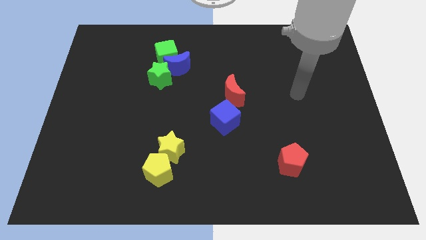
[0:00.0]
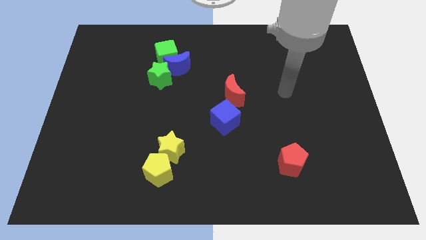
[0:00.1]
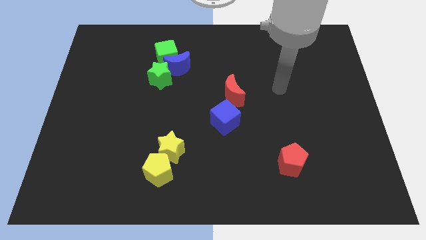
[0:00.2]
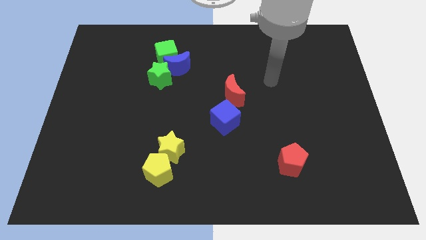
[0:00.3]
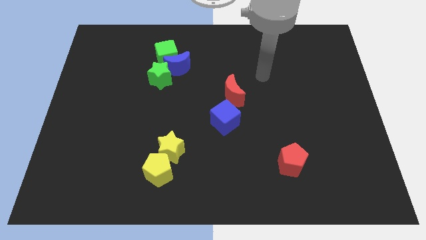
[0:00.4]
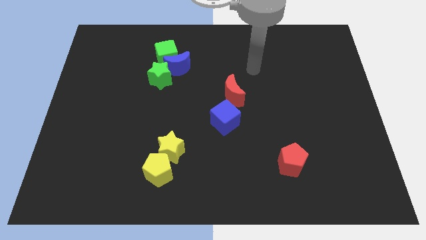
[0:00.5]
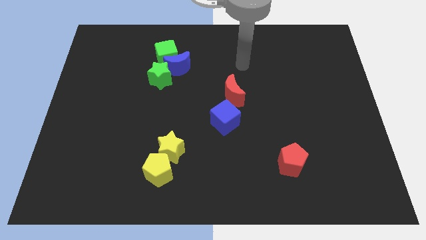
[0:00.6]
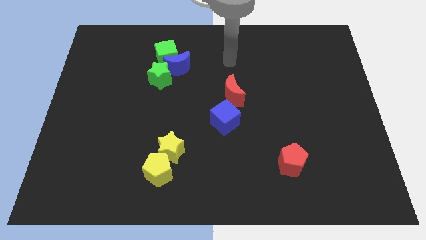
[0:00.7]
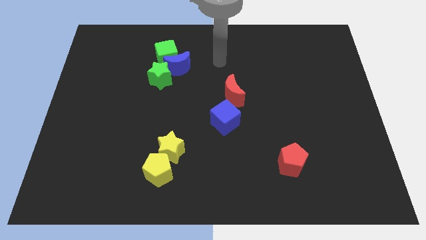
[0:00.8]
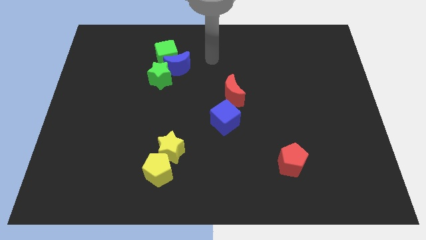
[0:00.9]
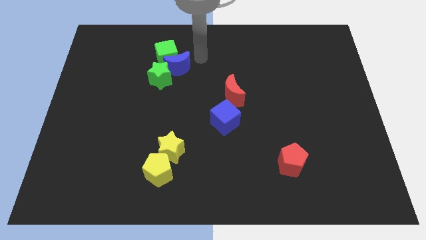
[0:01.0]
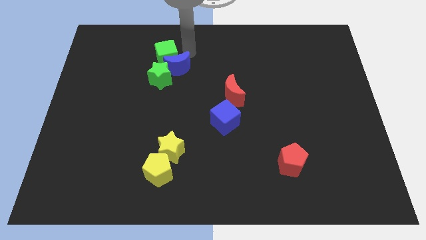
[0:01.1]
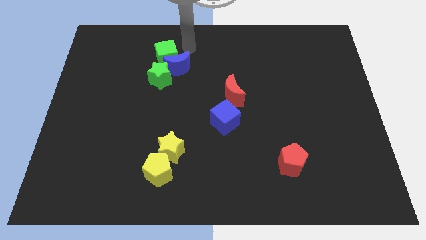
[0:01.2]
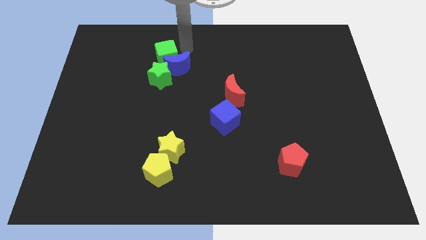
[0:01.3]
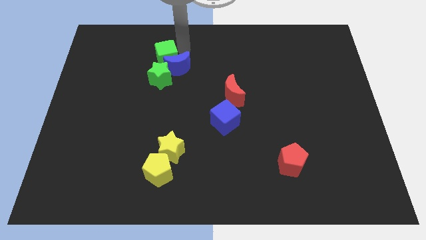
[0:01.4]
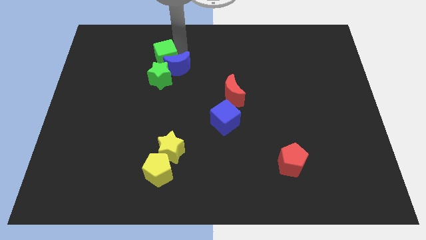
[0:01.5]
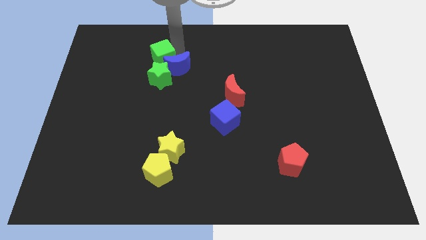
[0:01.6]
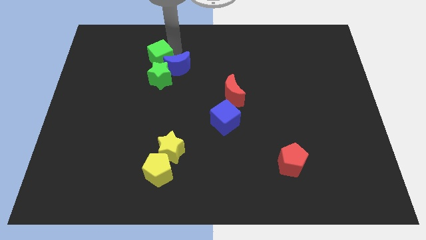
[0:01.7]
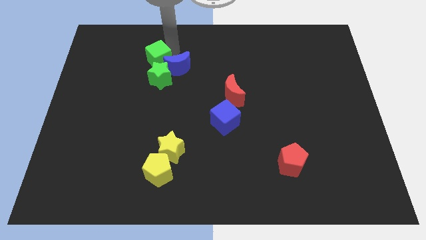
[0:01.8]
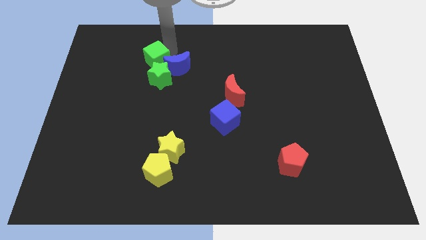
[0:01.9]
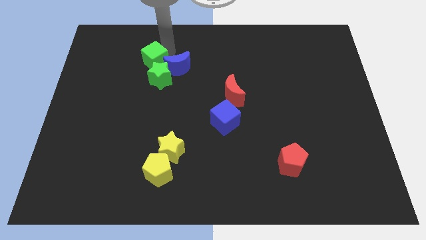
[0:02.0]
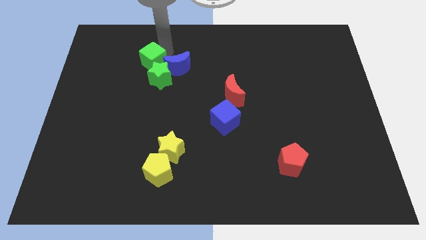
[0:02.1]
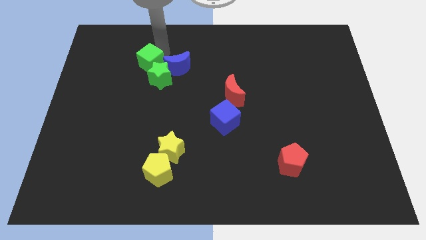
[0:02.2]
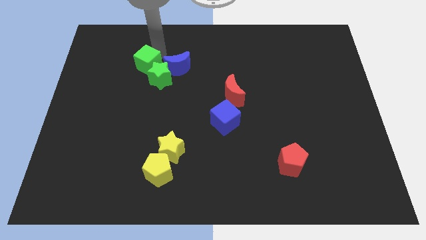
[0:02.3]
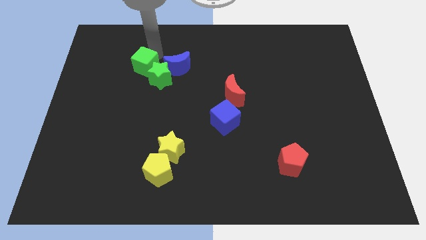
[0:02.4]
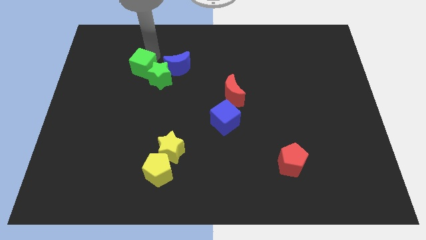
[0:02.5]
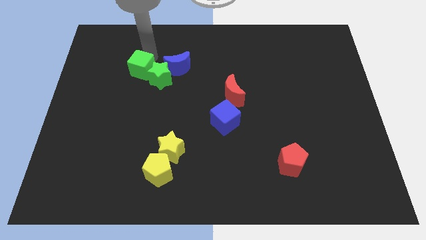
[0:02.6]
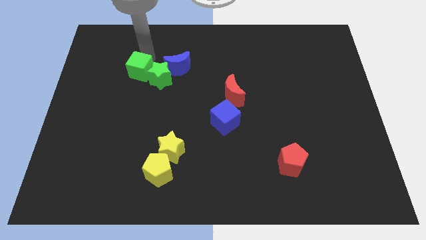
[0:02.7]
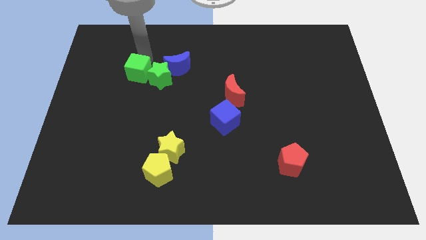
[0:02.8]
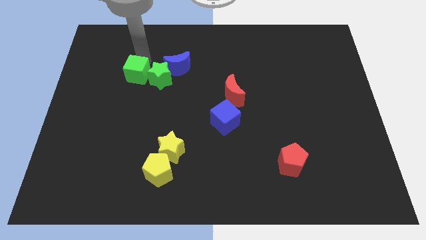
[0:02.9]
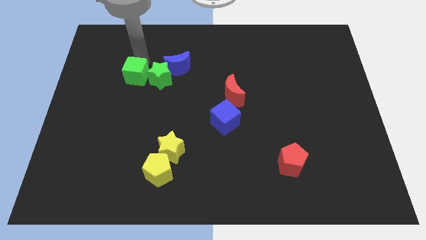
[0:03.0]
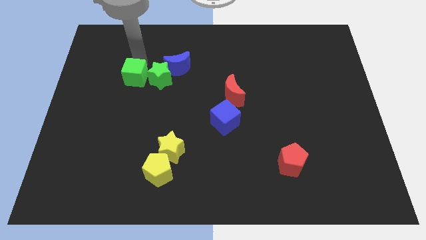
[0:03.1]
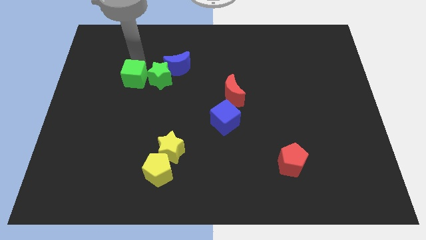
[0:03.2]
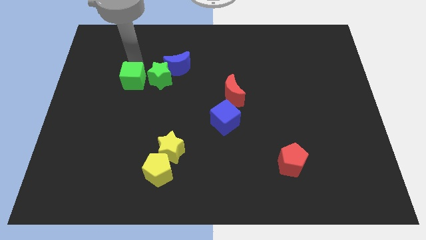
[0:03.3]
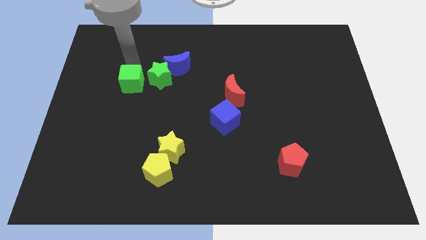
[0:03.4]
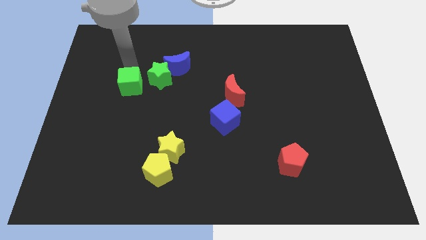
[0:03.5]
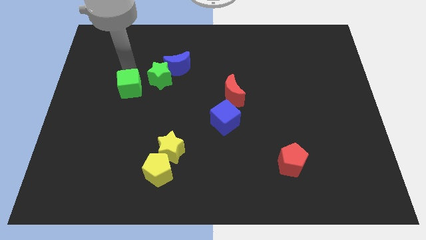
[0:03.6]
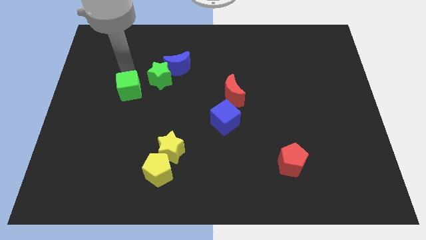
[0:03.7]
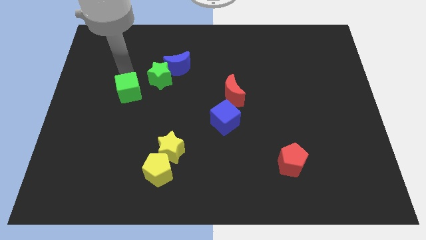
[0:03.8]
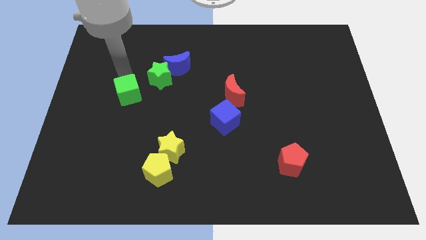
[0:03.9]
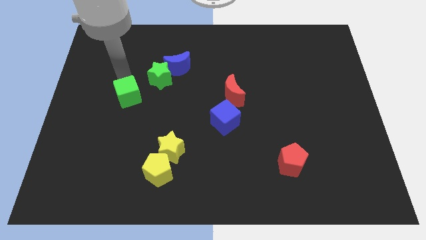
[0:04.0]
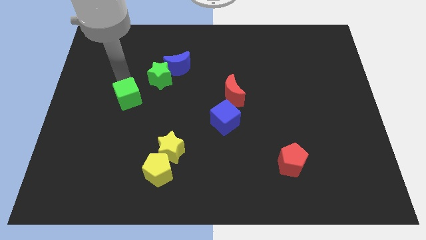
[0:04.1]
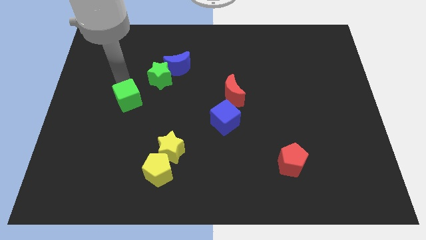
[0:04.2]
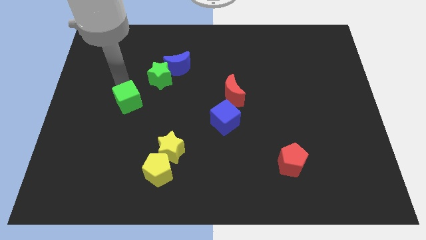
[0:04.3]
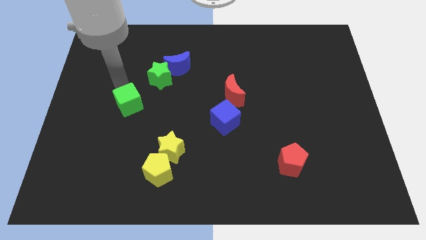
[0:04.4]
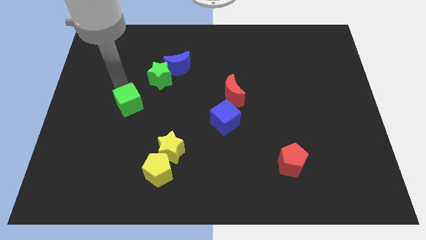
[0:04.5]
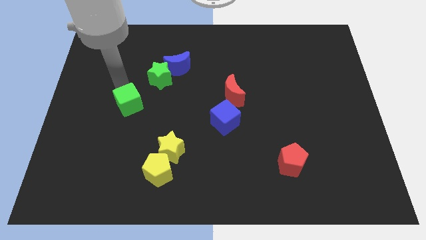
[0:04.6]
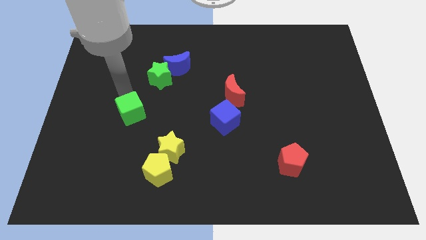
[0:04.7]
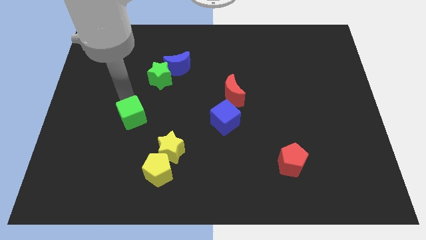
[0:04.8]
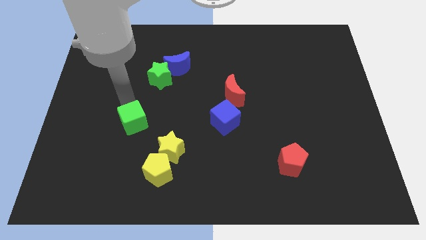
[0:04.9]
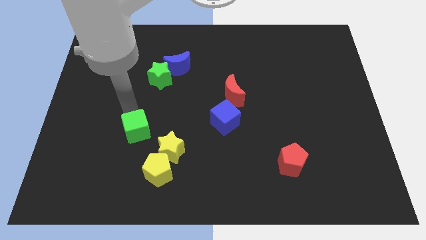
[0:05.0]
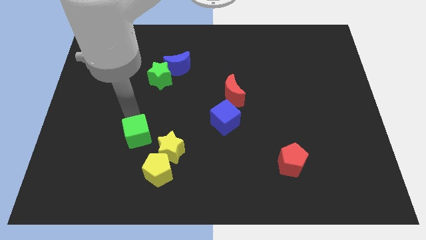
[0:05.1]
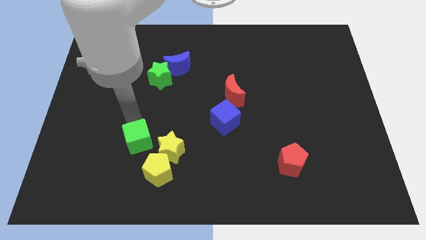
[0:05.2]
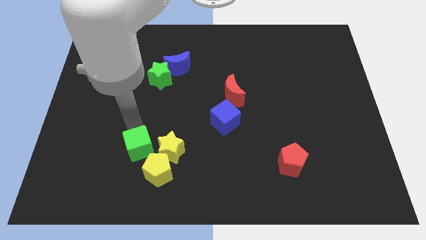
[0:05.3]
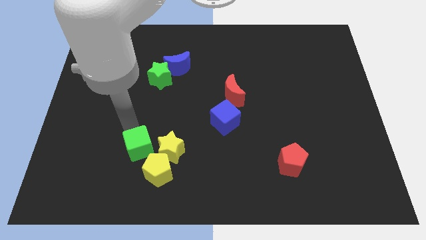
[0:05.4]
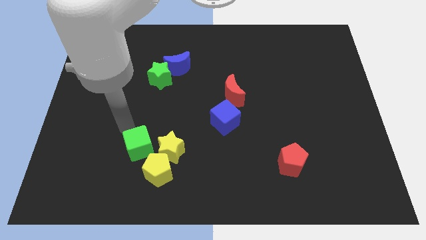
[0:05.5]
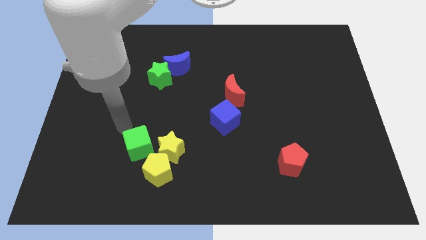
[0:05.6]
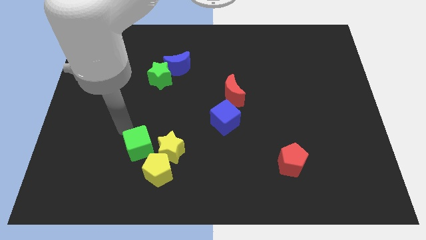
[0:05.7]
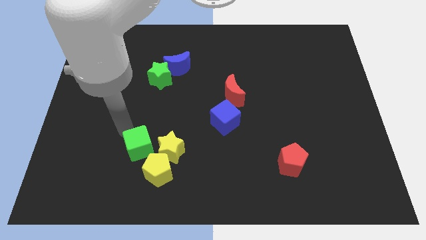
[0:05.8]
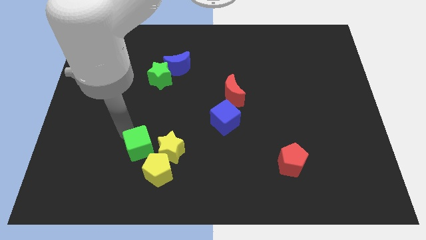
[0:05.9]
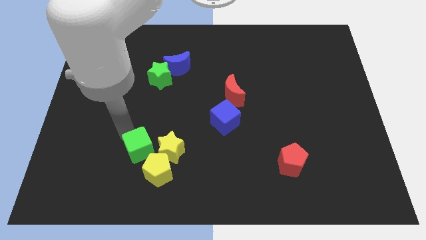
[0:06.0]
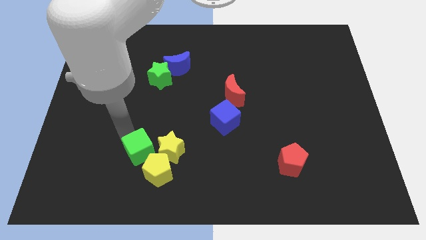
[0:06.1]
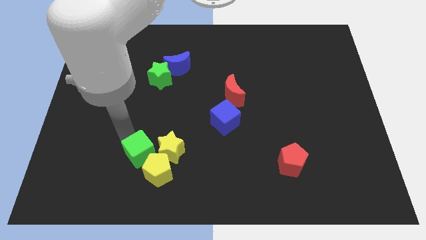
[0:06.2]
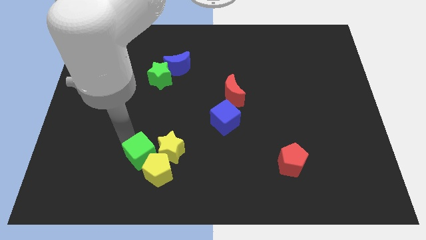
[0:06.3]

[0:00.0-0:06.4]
push the green cube towards the yellow pentagon
